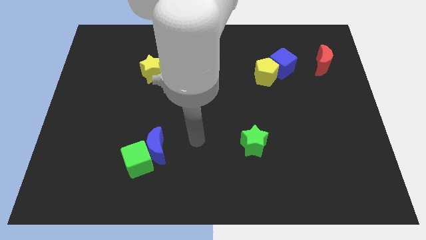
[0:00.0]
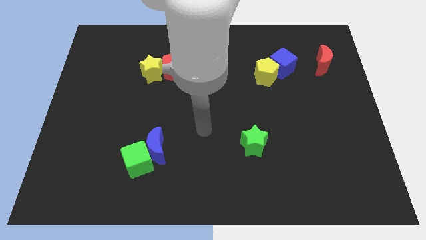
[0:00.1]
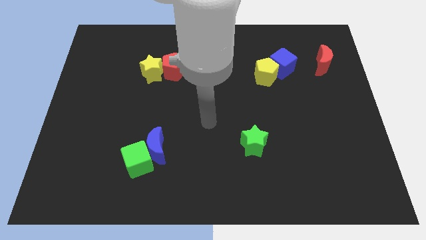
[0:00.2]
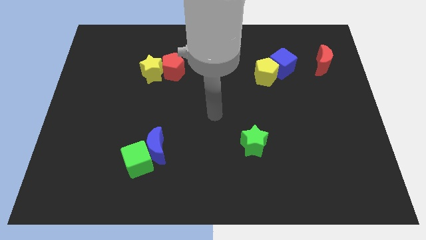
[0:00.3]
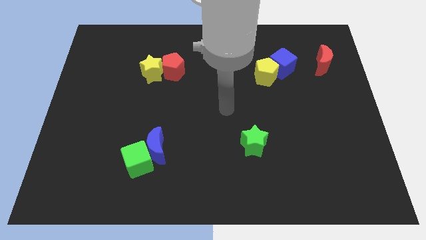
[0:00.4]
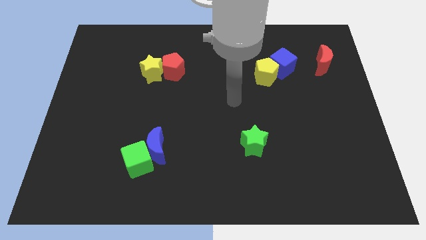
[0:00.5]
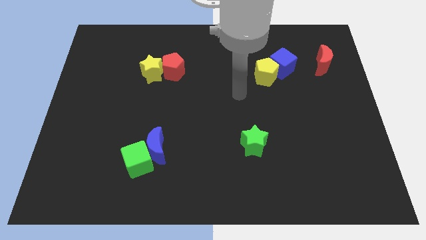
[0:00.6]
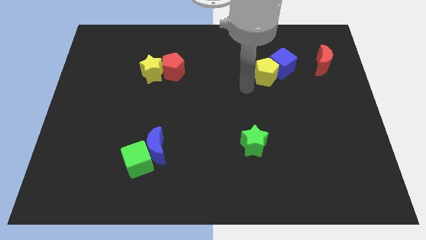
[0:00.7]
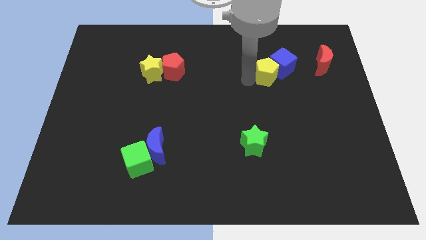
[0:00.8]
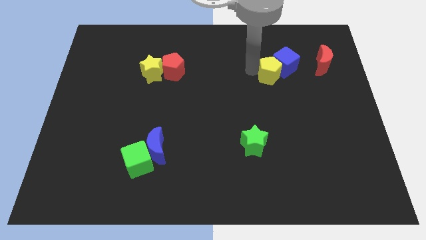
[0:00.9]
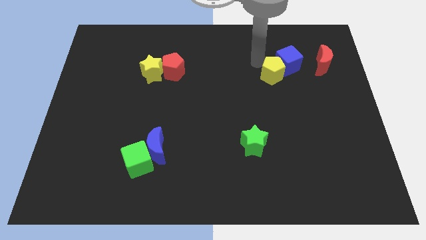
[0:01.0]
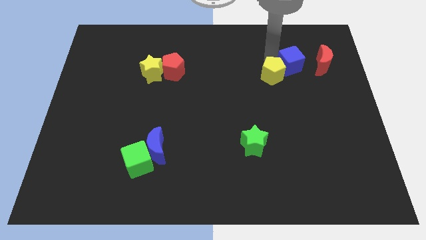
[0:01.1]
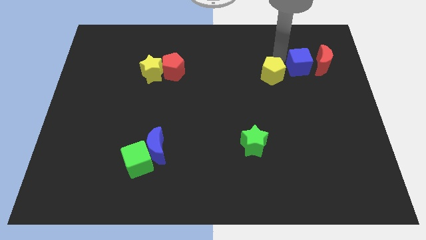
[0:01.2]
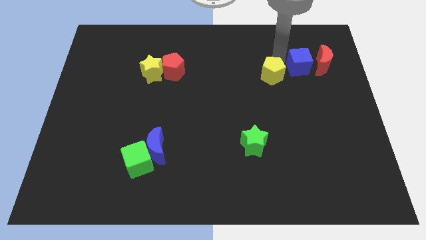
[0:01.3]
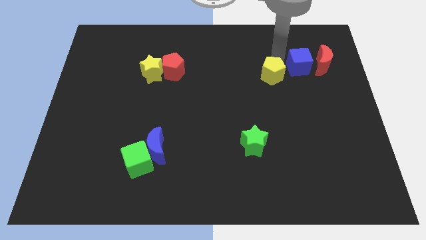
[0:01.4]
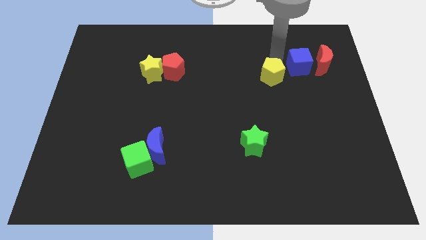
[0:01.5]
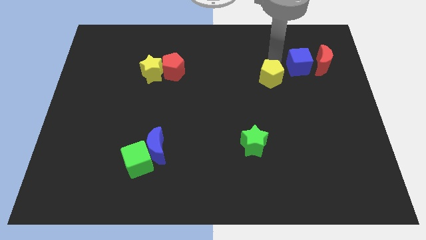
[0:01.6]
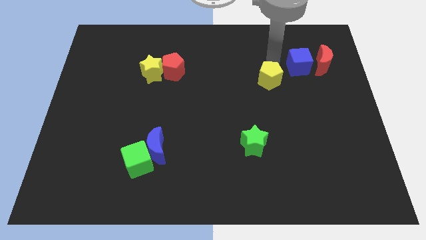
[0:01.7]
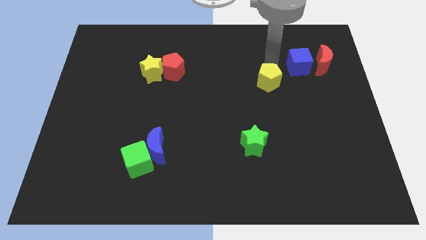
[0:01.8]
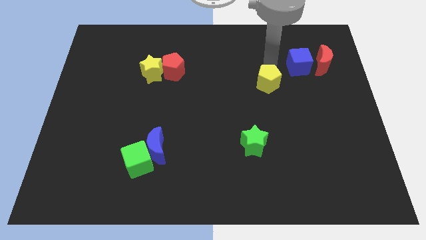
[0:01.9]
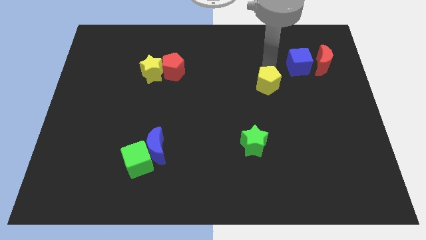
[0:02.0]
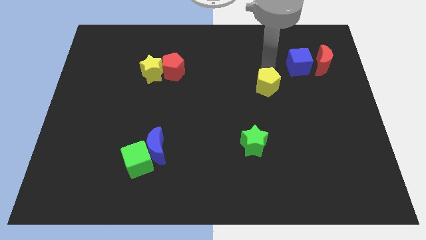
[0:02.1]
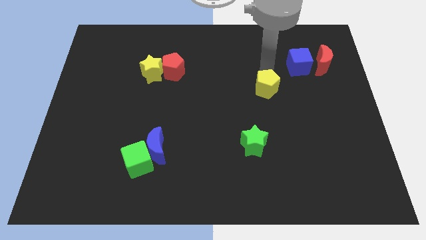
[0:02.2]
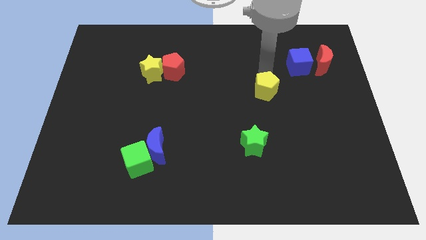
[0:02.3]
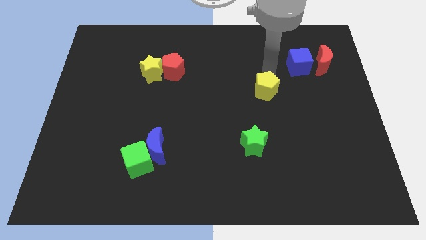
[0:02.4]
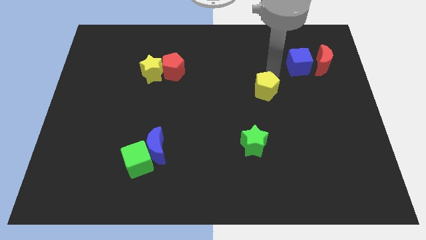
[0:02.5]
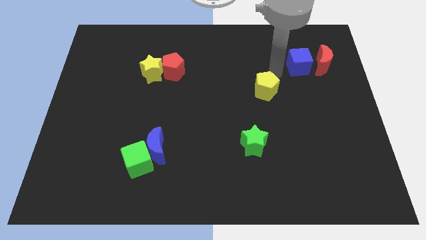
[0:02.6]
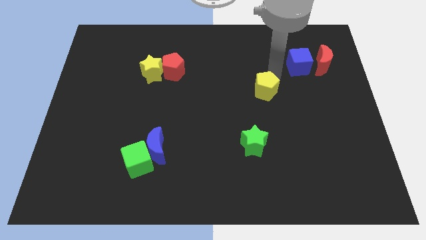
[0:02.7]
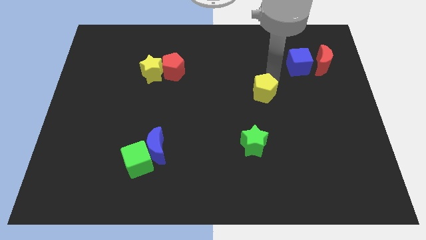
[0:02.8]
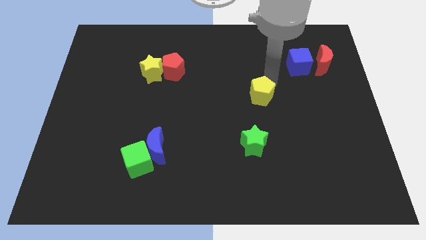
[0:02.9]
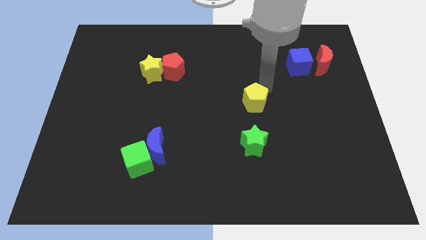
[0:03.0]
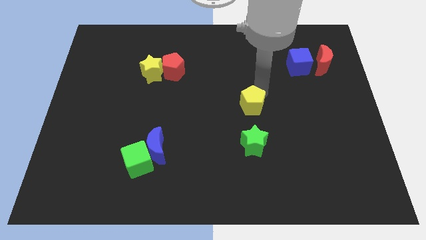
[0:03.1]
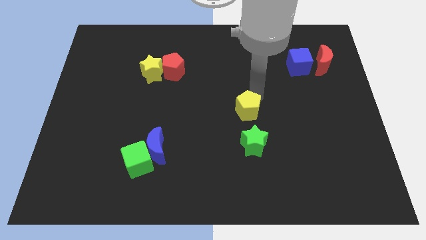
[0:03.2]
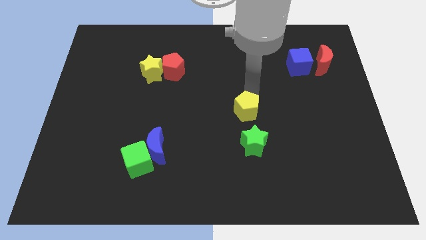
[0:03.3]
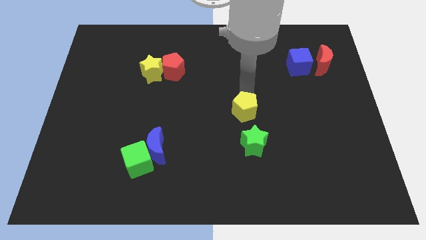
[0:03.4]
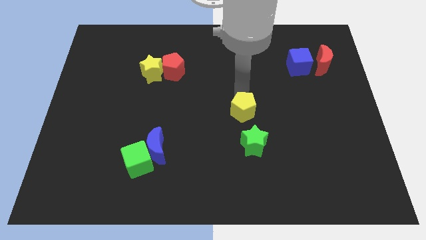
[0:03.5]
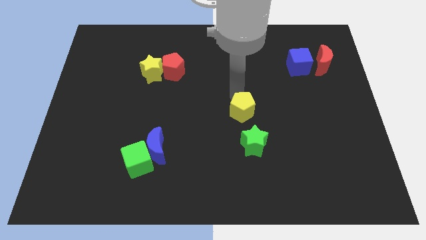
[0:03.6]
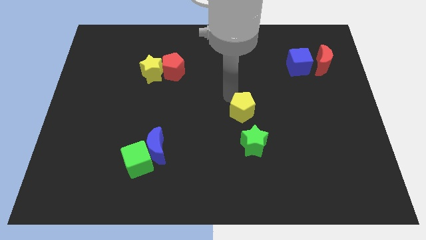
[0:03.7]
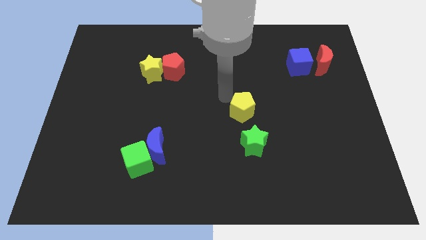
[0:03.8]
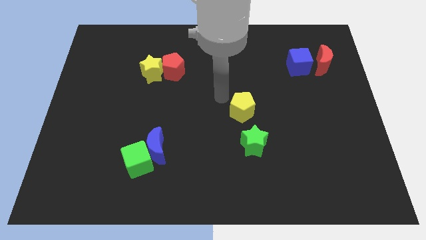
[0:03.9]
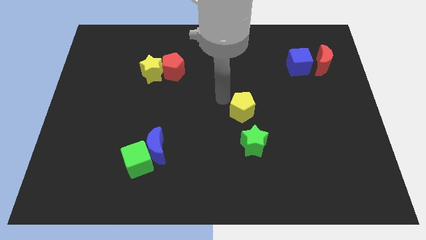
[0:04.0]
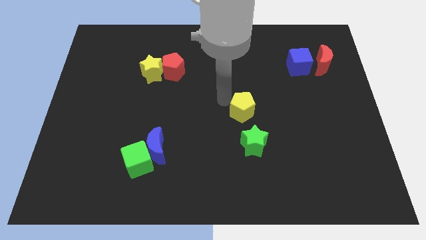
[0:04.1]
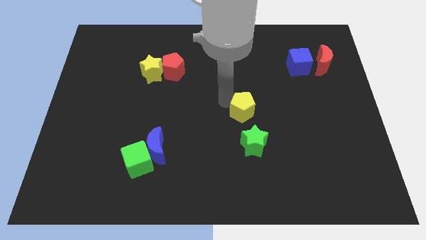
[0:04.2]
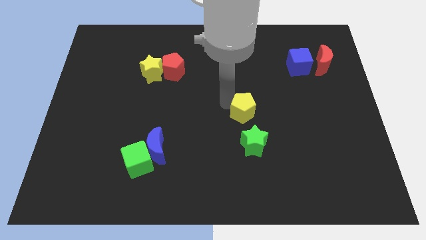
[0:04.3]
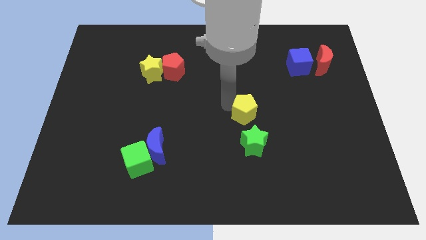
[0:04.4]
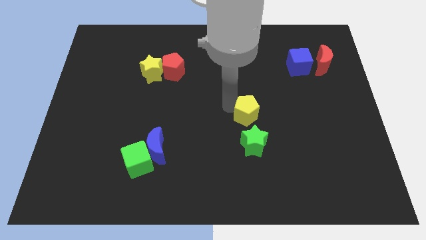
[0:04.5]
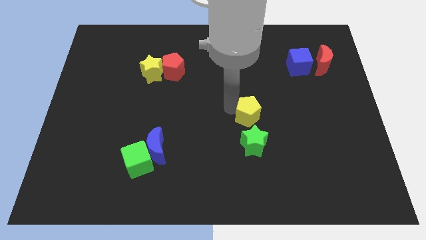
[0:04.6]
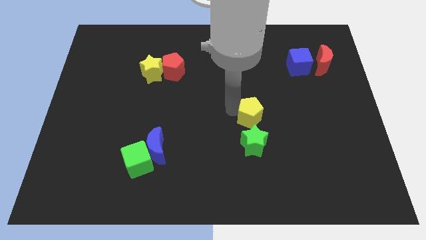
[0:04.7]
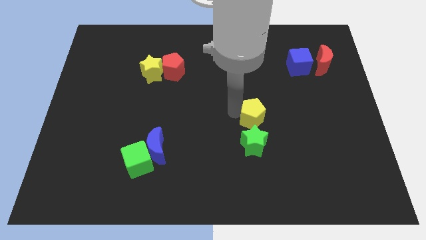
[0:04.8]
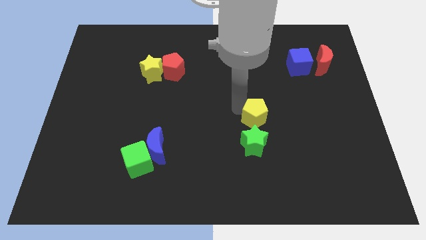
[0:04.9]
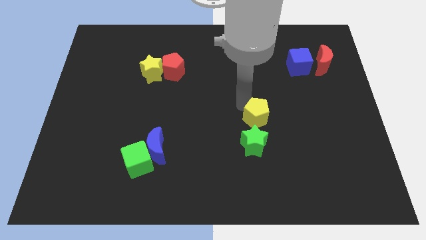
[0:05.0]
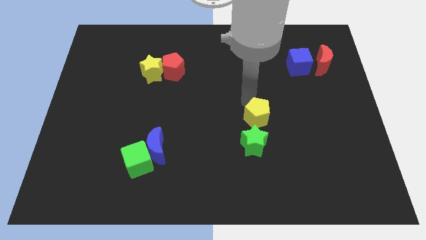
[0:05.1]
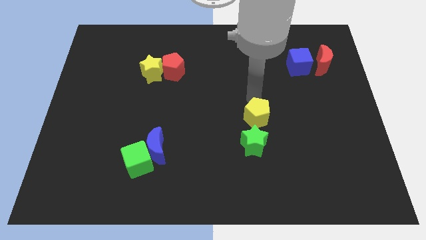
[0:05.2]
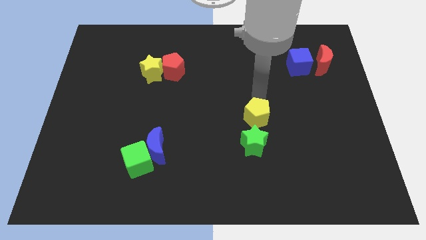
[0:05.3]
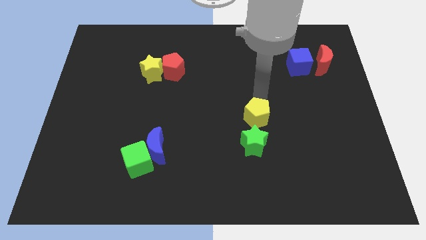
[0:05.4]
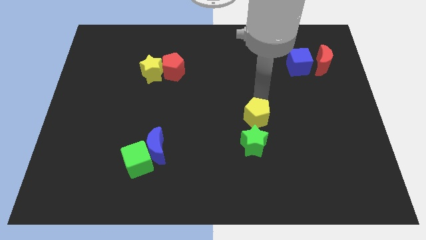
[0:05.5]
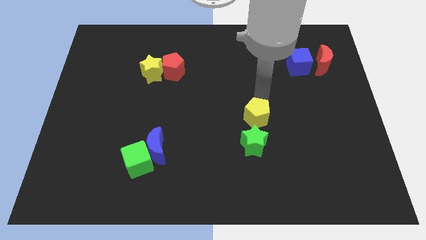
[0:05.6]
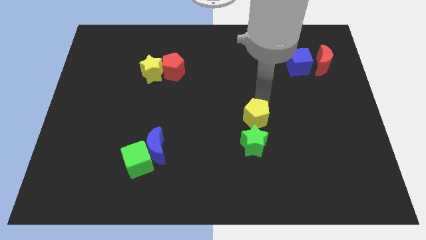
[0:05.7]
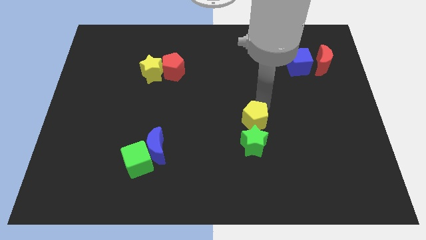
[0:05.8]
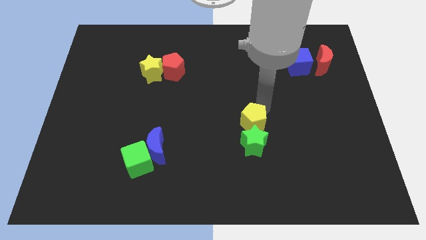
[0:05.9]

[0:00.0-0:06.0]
slide the yellow pentagon towards the green star
